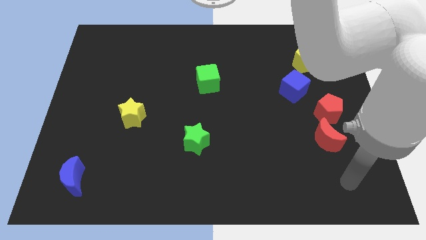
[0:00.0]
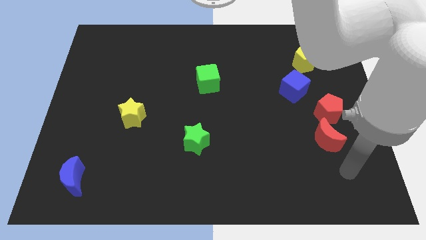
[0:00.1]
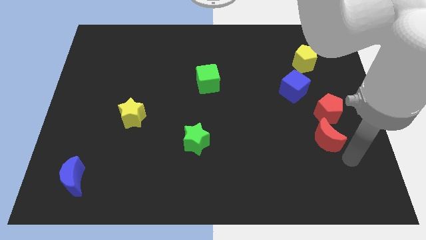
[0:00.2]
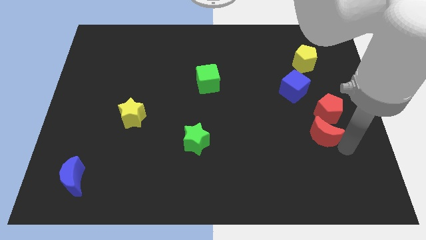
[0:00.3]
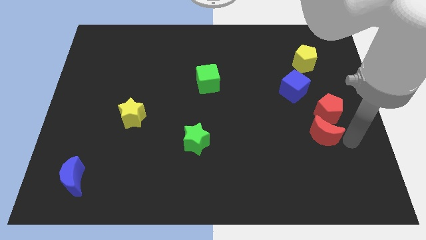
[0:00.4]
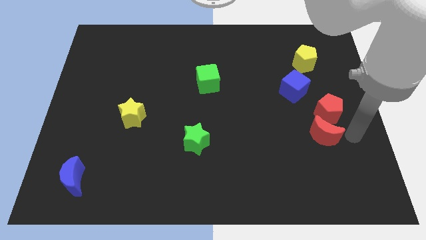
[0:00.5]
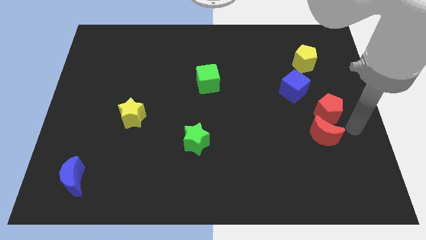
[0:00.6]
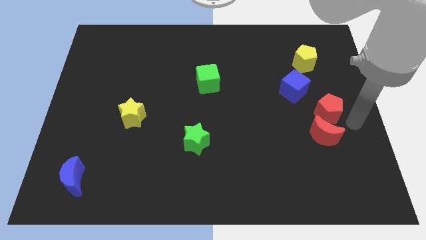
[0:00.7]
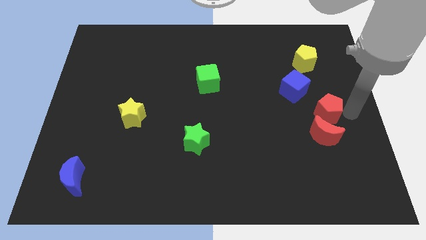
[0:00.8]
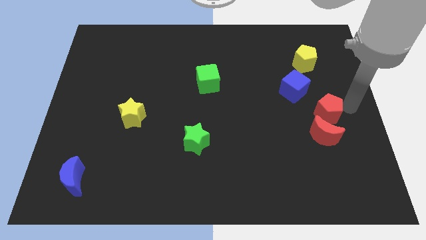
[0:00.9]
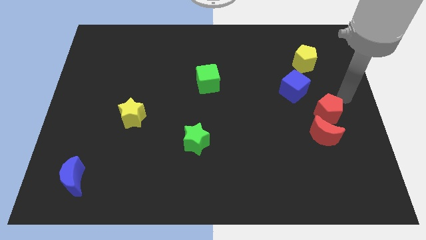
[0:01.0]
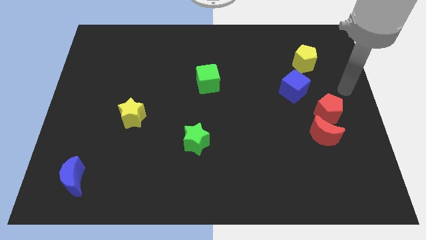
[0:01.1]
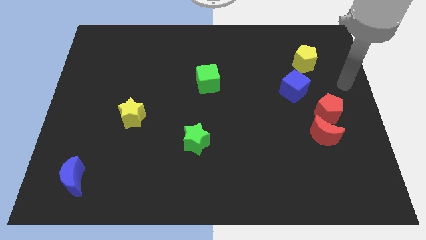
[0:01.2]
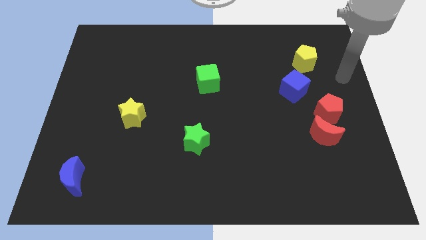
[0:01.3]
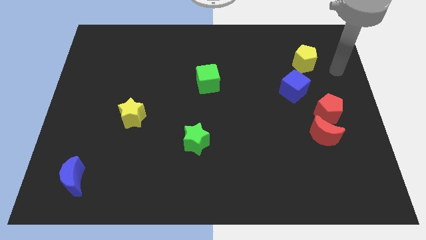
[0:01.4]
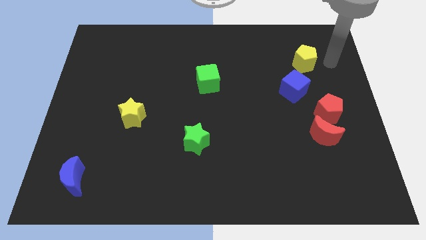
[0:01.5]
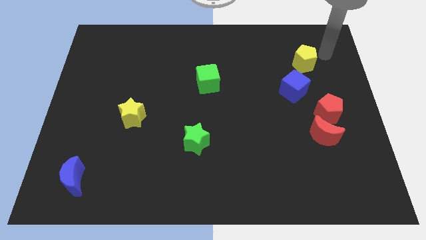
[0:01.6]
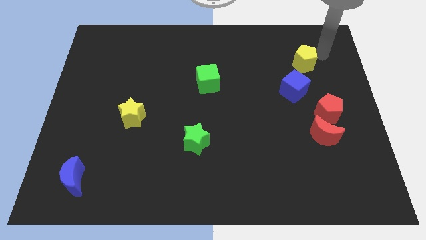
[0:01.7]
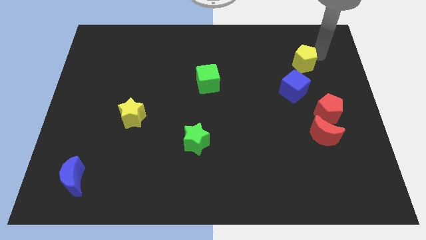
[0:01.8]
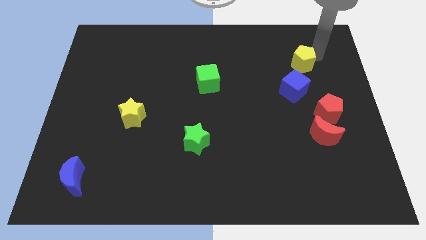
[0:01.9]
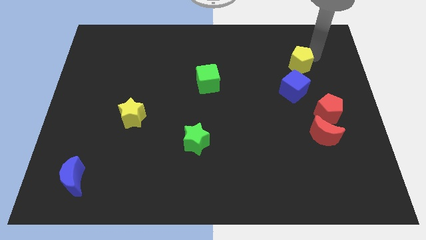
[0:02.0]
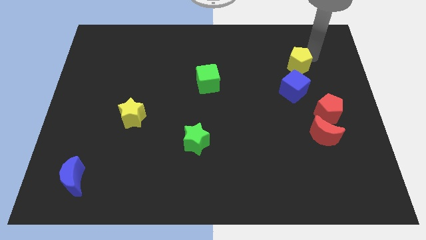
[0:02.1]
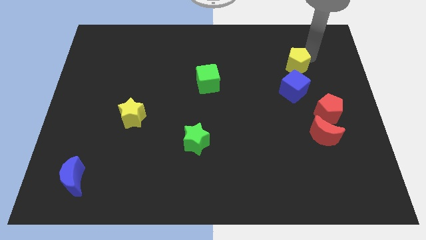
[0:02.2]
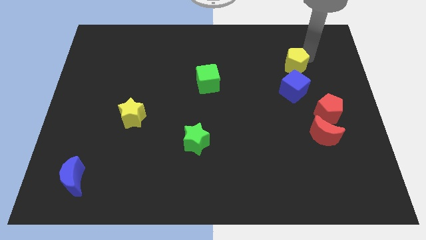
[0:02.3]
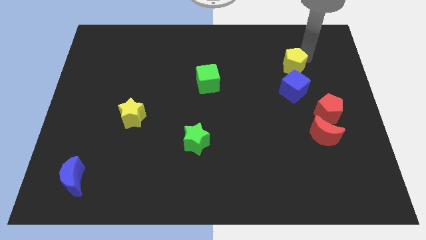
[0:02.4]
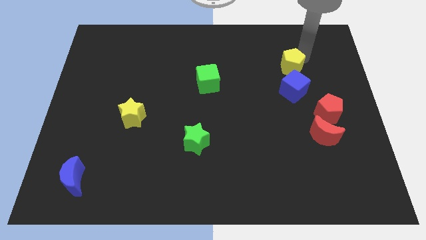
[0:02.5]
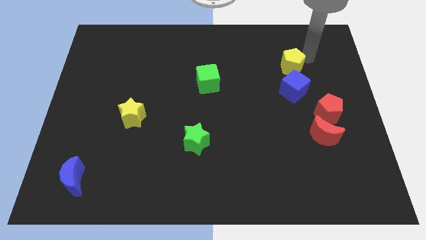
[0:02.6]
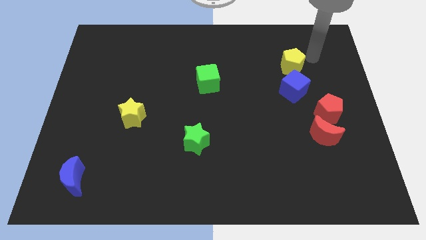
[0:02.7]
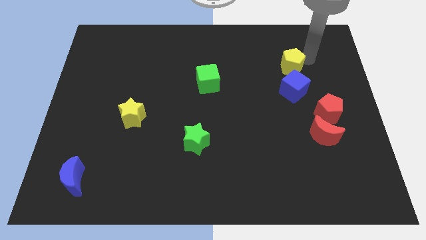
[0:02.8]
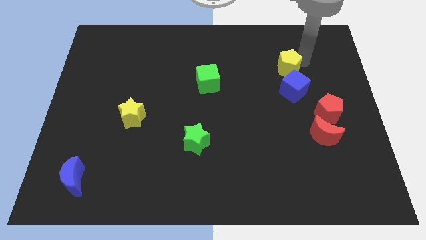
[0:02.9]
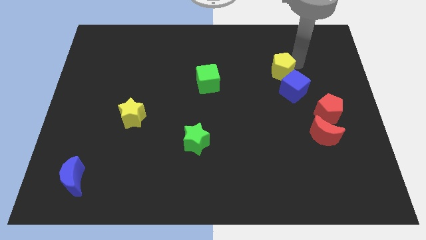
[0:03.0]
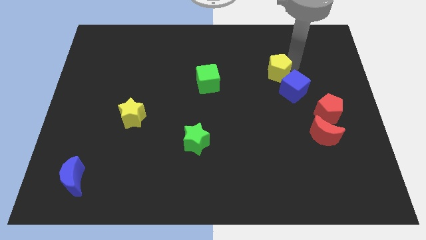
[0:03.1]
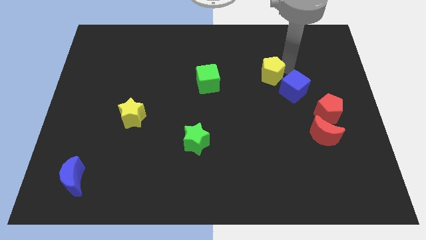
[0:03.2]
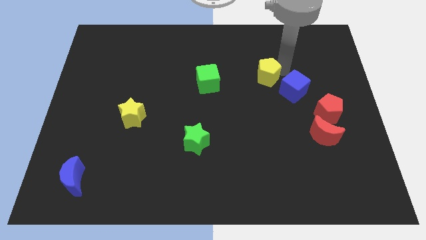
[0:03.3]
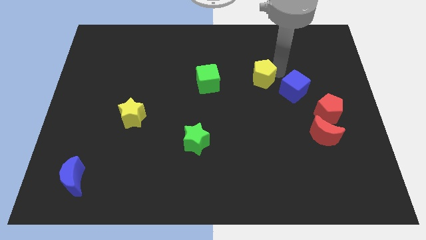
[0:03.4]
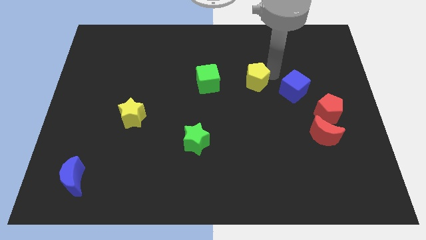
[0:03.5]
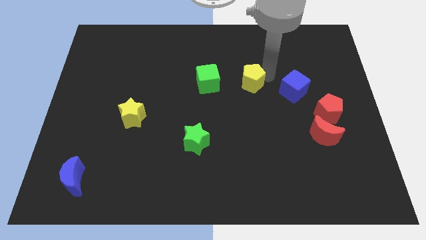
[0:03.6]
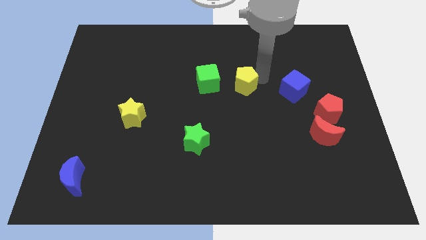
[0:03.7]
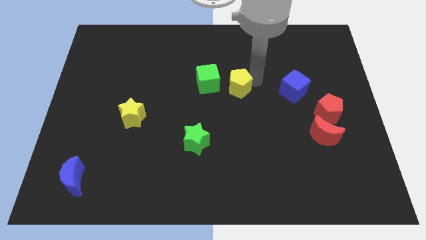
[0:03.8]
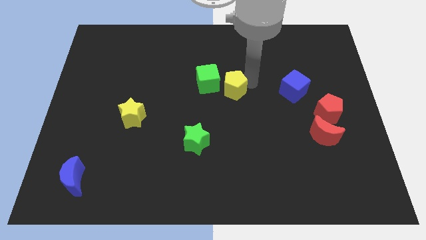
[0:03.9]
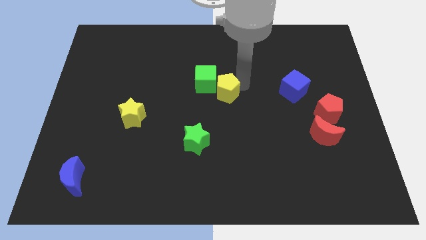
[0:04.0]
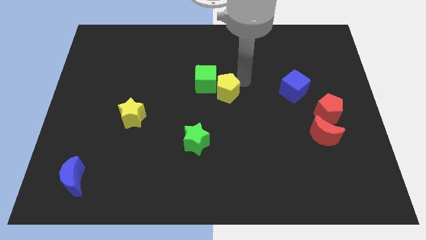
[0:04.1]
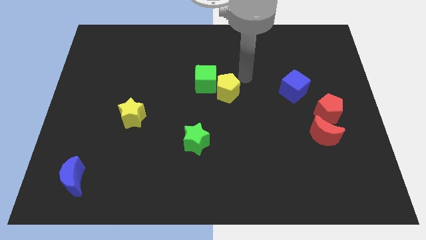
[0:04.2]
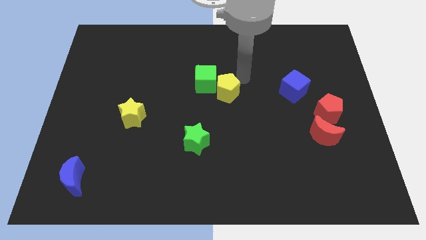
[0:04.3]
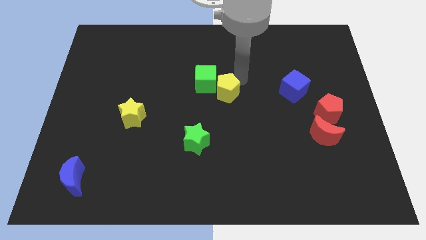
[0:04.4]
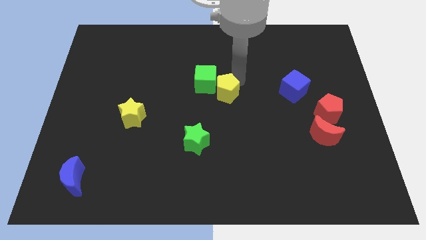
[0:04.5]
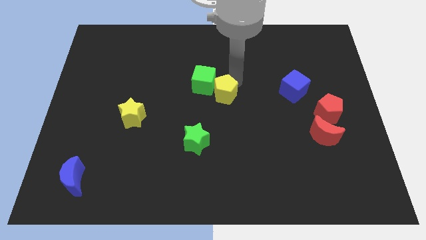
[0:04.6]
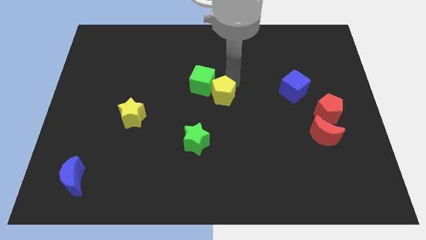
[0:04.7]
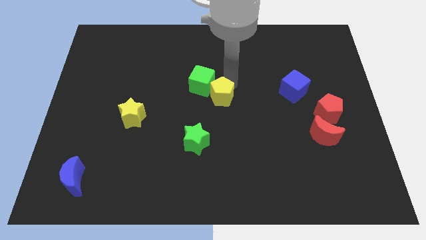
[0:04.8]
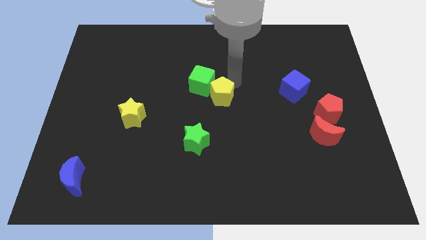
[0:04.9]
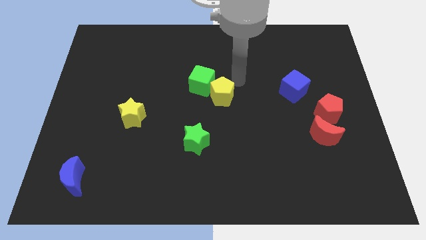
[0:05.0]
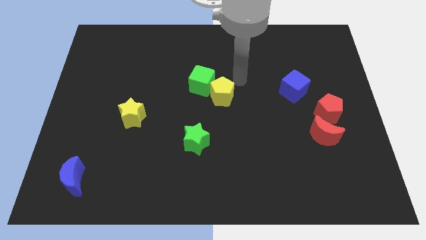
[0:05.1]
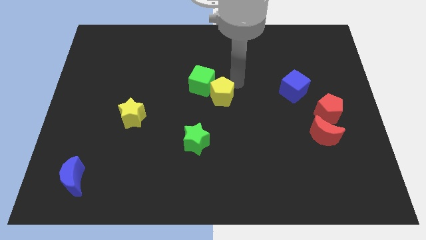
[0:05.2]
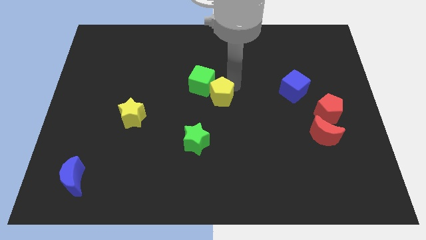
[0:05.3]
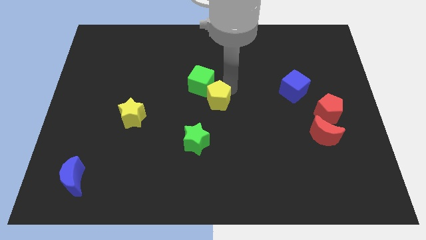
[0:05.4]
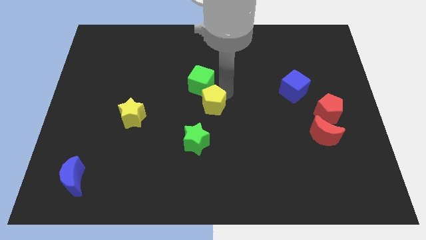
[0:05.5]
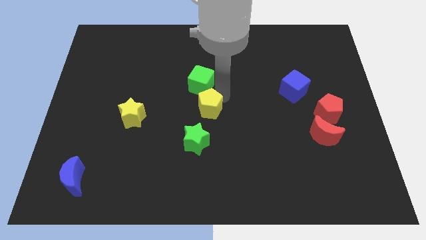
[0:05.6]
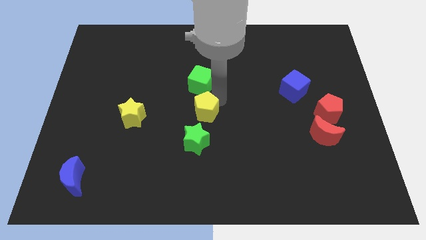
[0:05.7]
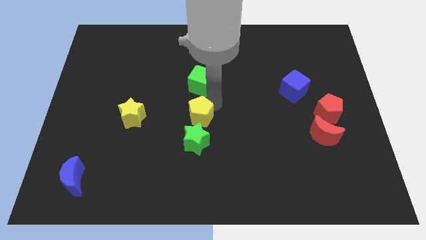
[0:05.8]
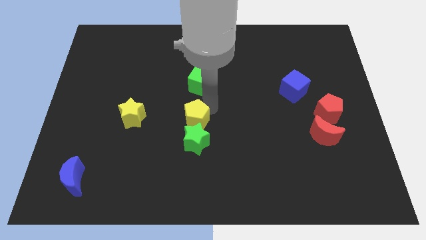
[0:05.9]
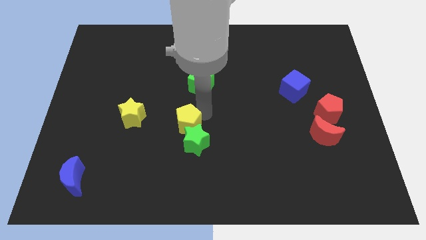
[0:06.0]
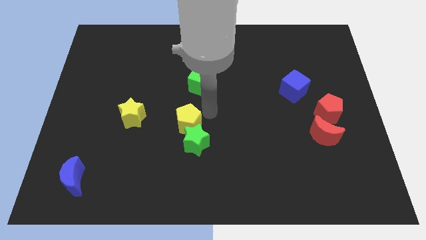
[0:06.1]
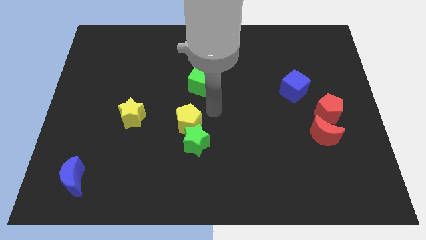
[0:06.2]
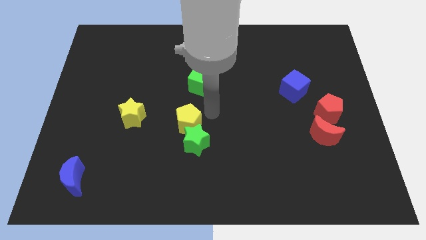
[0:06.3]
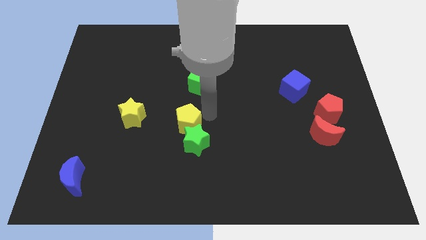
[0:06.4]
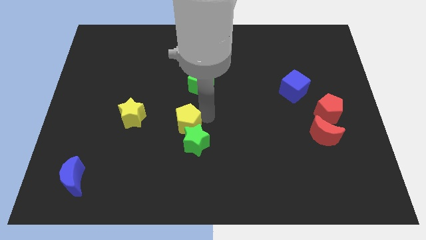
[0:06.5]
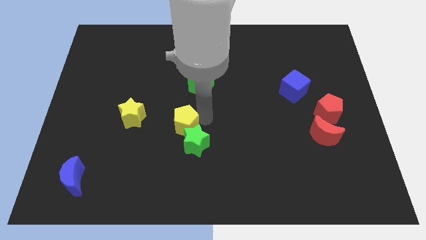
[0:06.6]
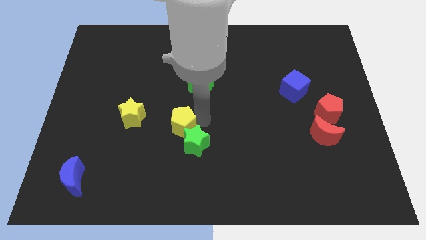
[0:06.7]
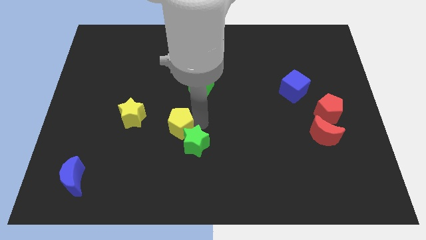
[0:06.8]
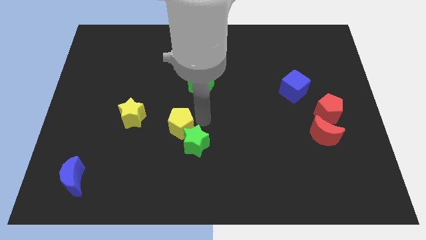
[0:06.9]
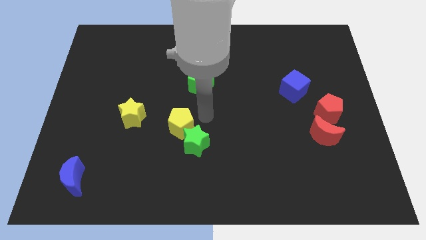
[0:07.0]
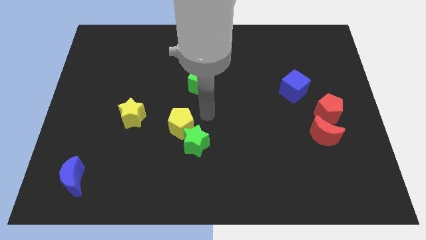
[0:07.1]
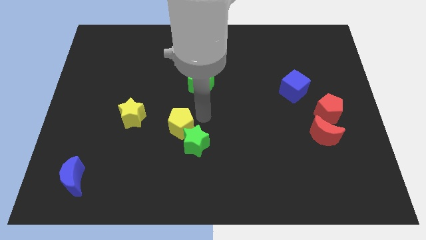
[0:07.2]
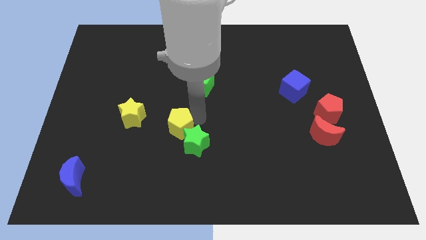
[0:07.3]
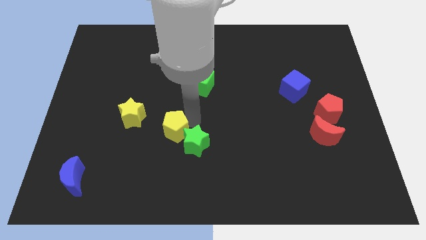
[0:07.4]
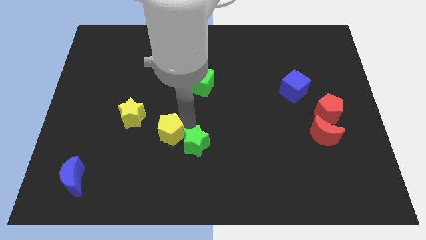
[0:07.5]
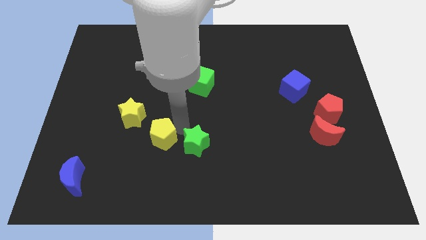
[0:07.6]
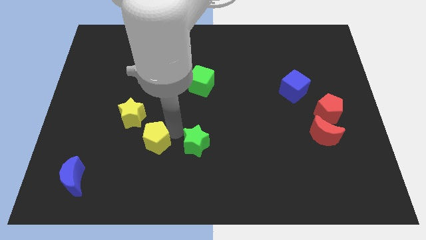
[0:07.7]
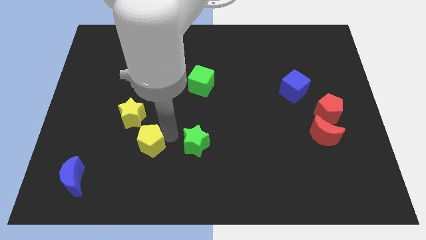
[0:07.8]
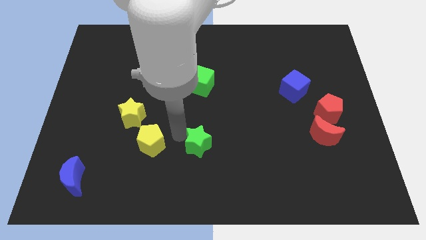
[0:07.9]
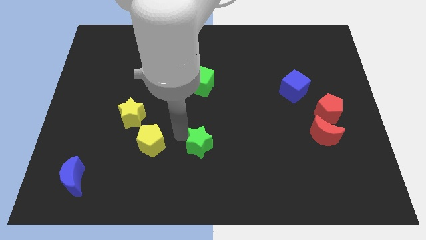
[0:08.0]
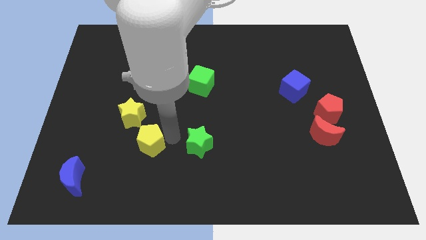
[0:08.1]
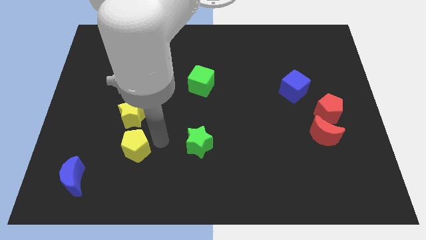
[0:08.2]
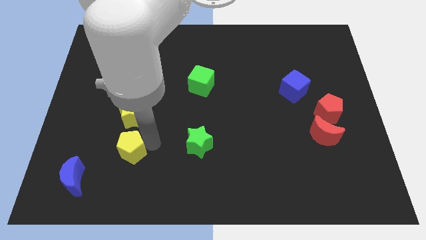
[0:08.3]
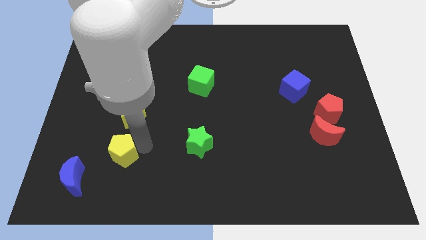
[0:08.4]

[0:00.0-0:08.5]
move the yellow pentagon to the top right side of the blue moon
